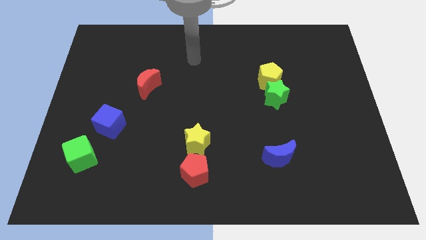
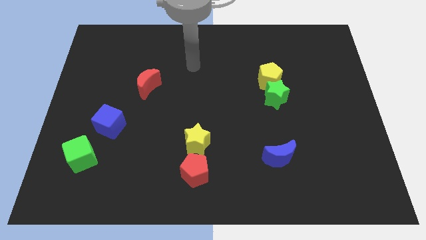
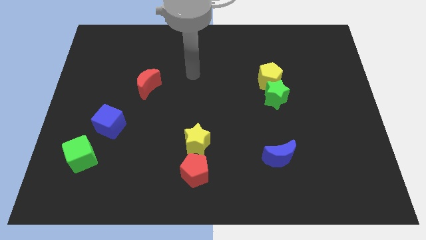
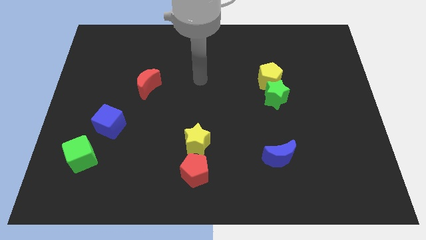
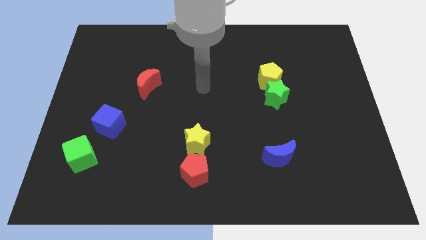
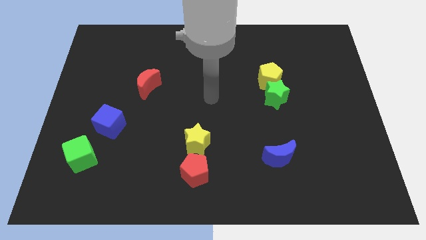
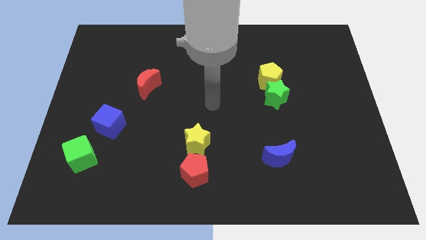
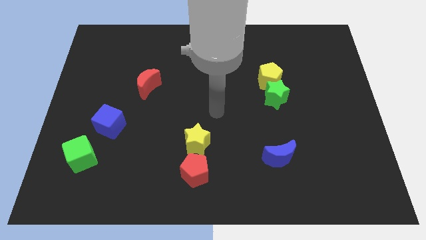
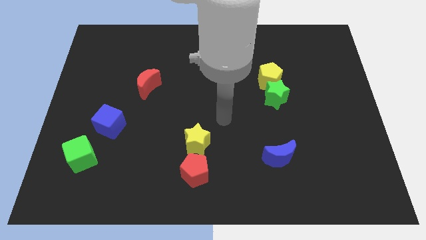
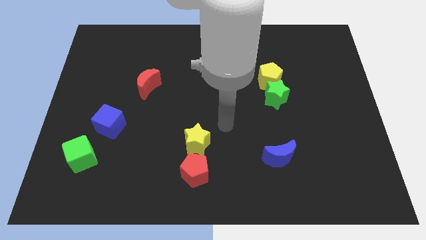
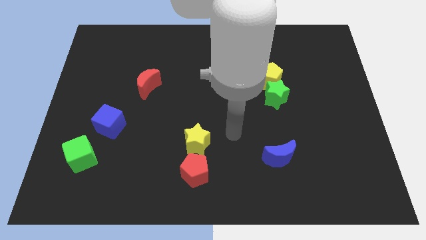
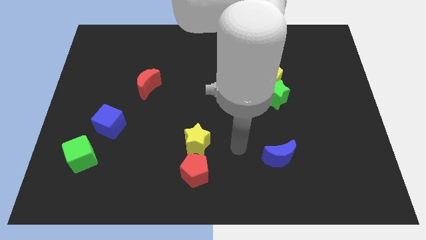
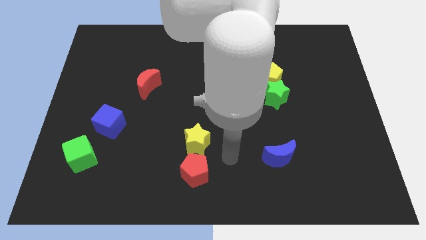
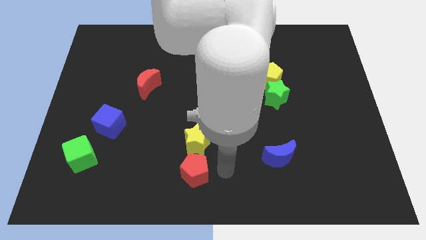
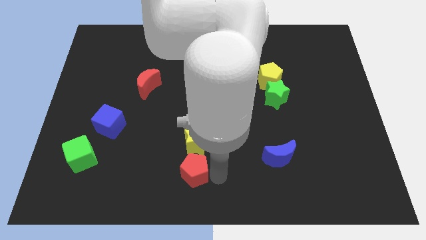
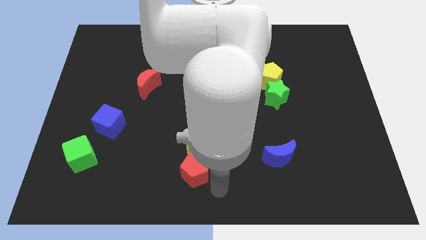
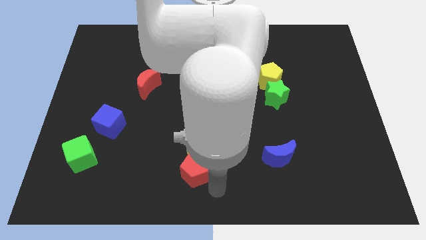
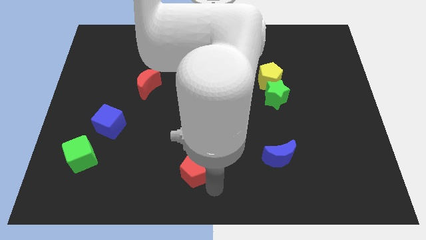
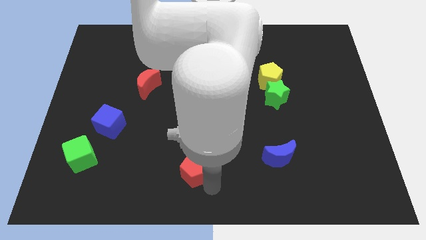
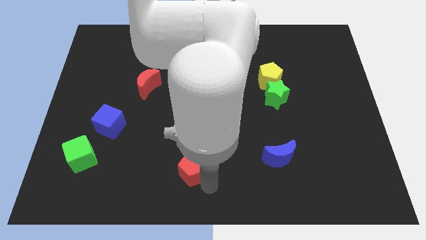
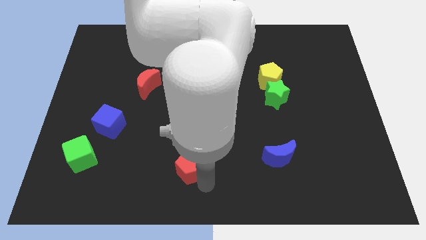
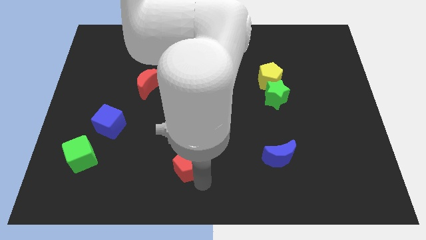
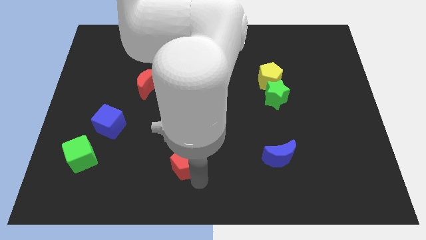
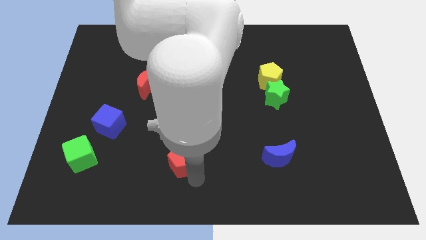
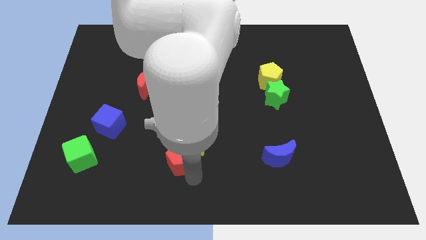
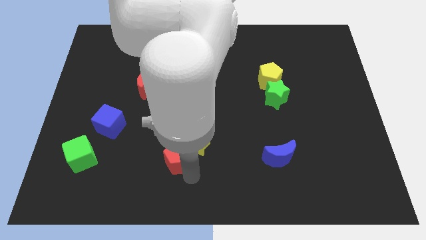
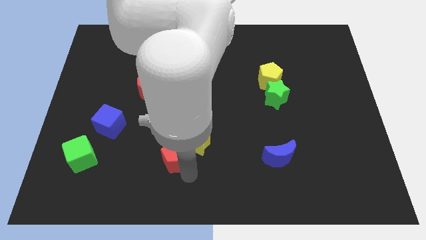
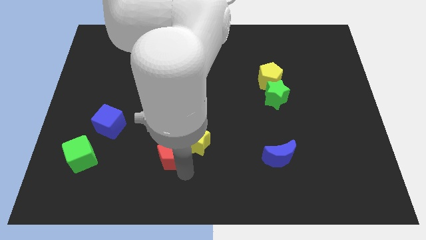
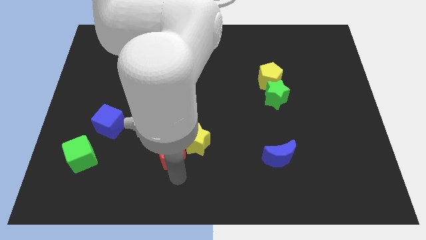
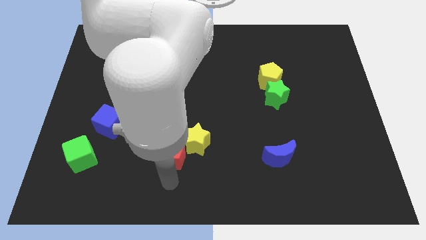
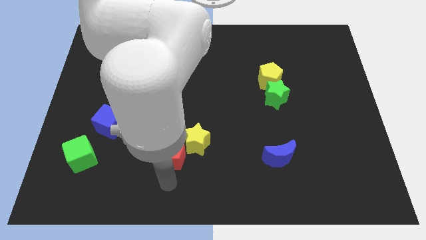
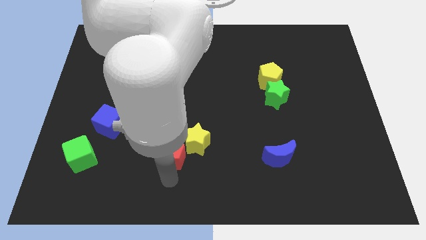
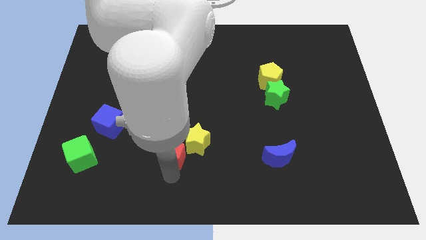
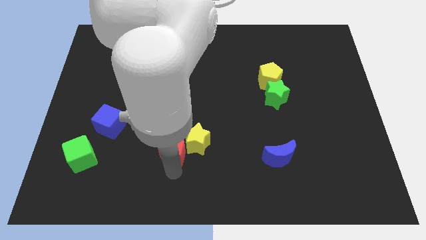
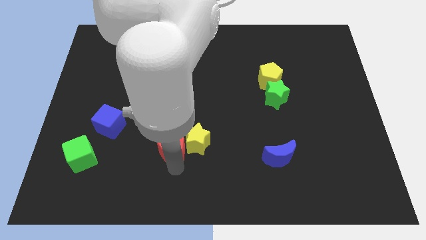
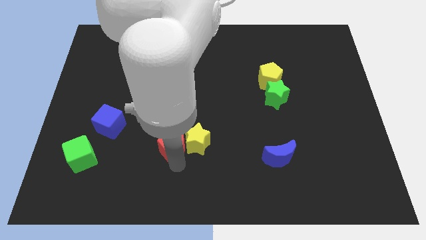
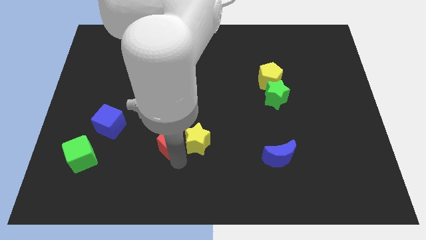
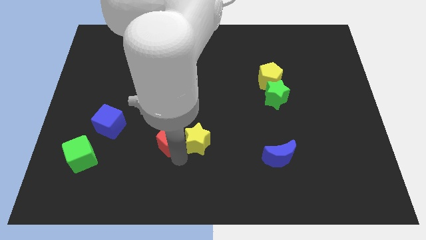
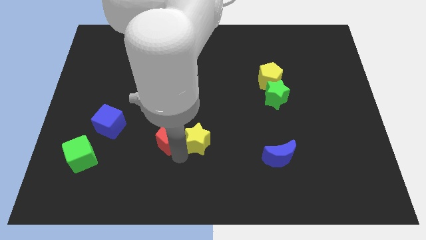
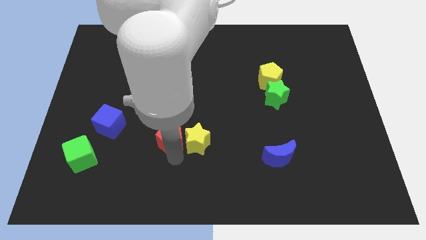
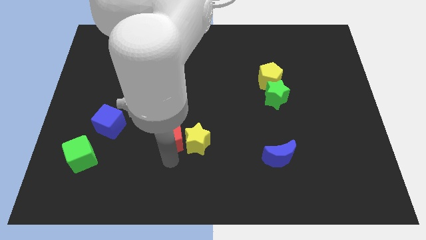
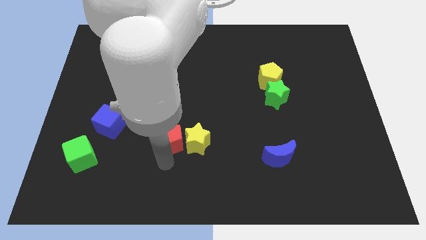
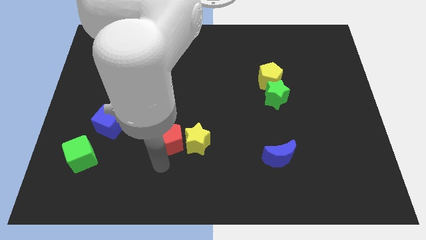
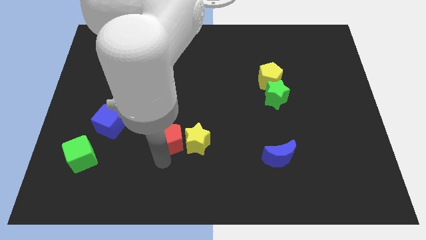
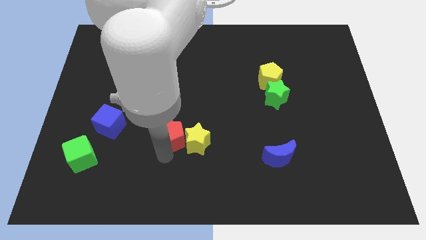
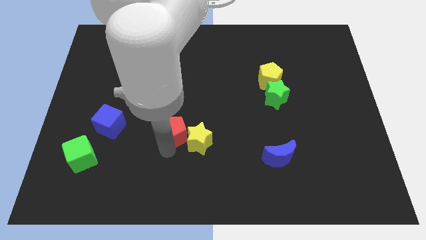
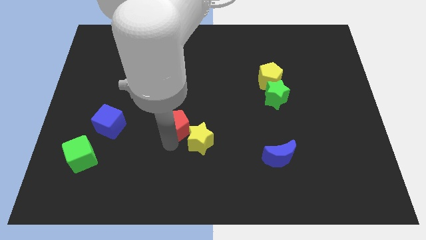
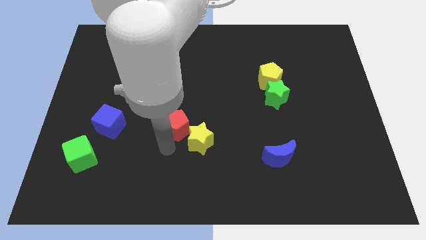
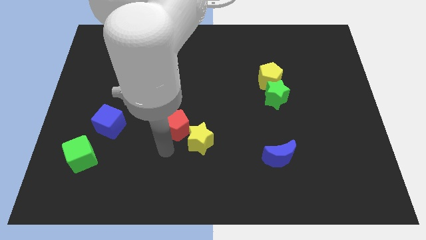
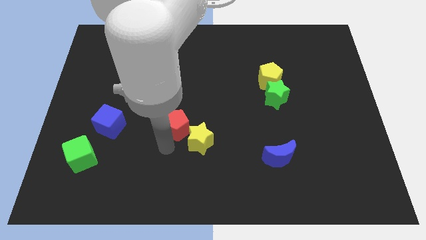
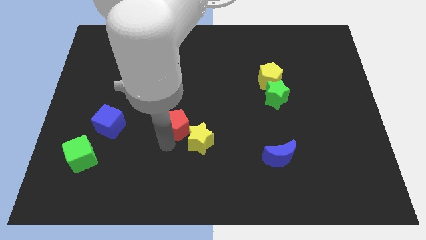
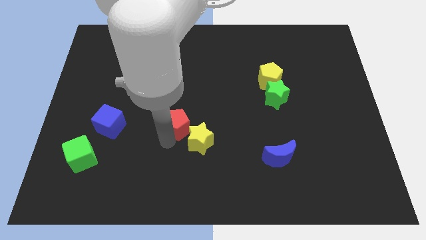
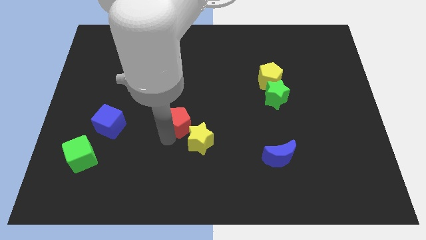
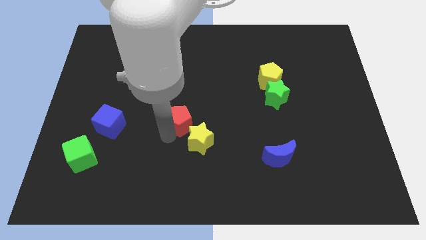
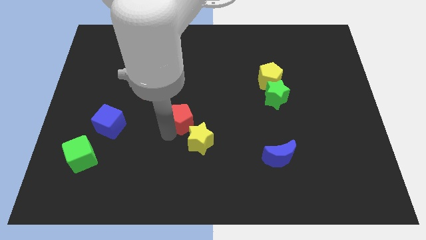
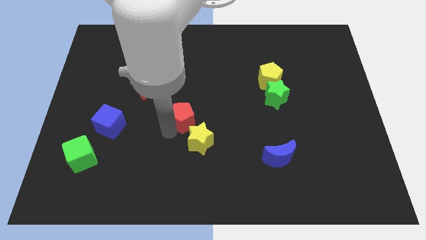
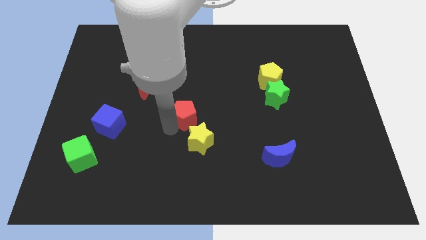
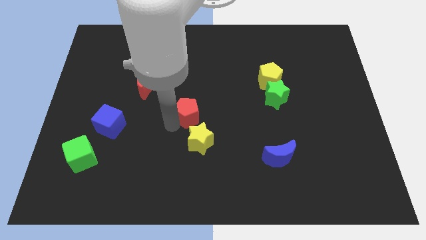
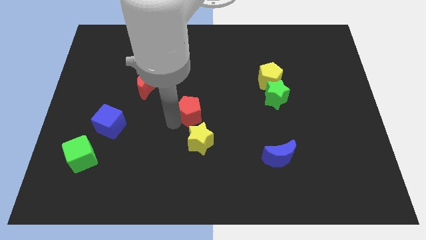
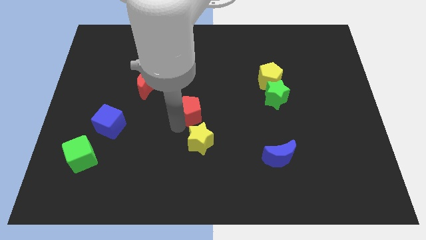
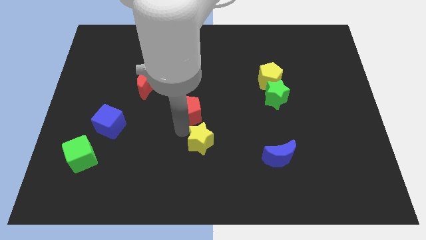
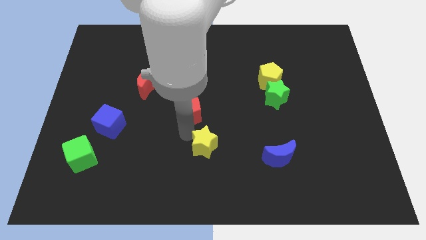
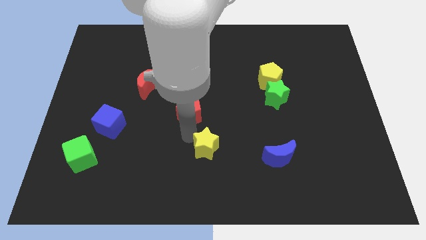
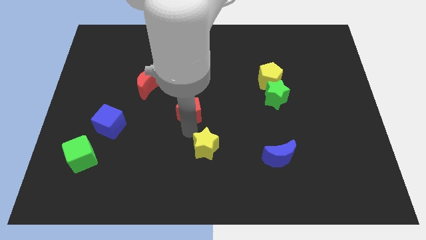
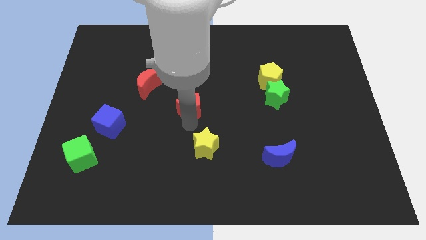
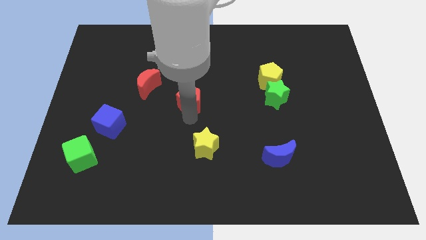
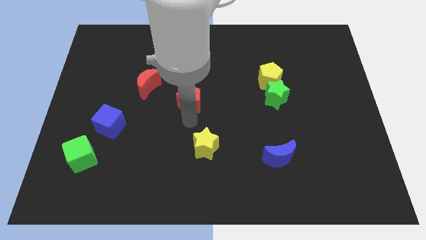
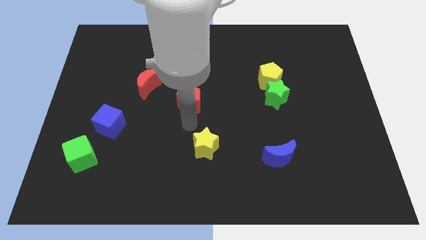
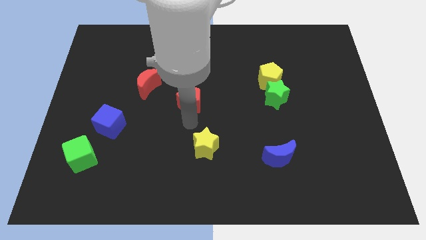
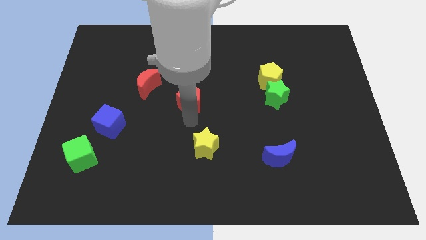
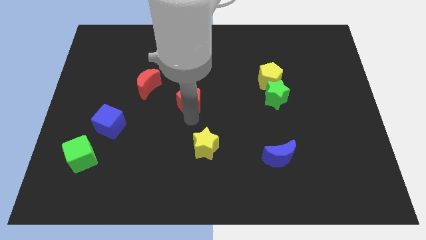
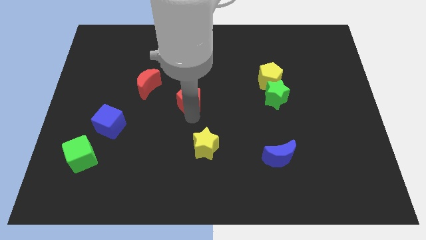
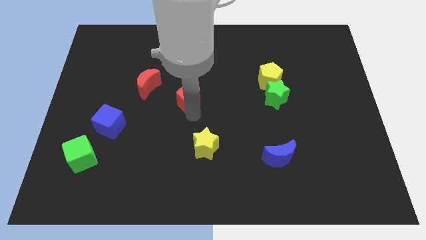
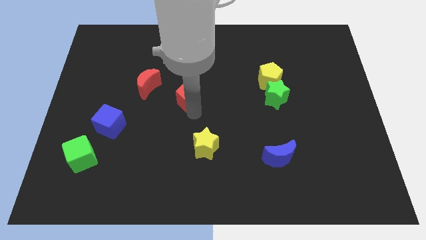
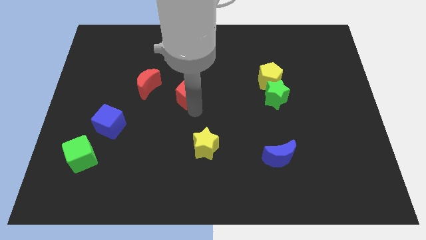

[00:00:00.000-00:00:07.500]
push the red pentagon up

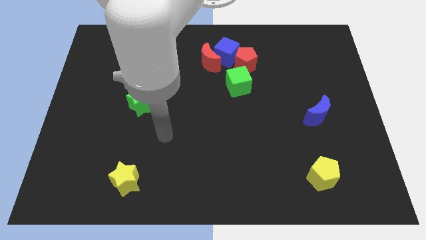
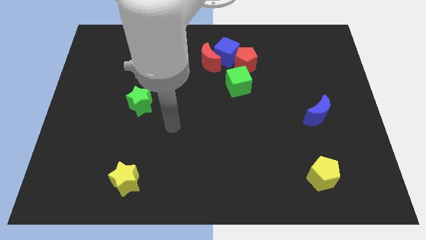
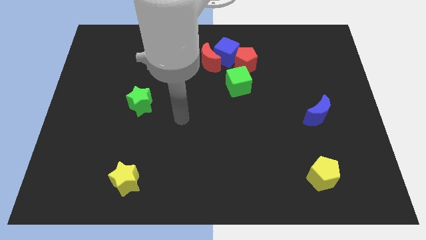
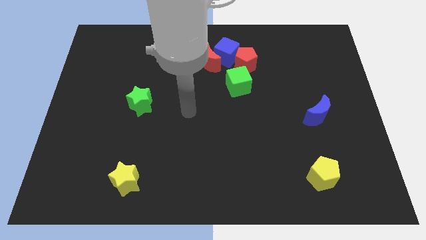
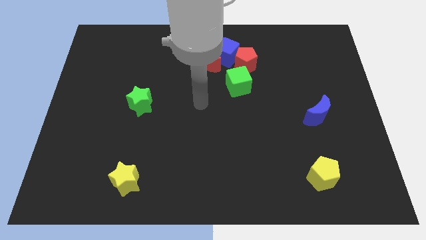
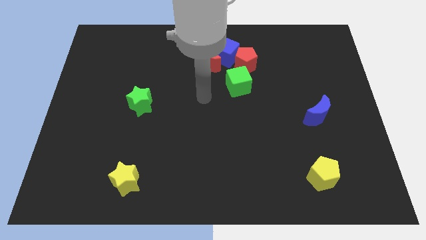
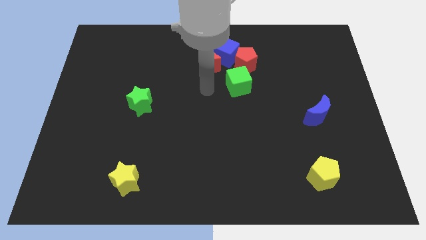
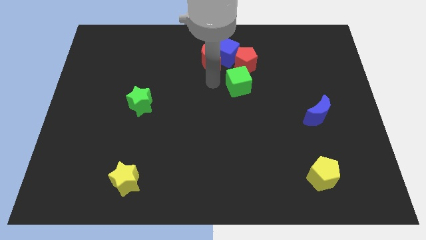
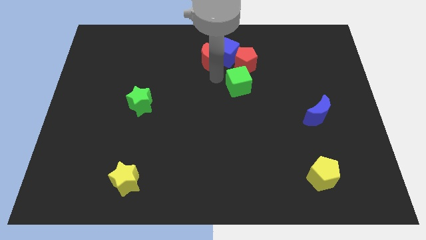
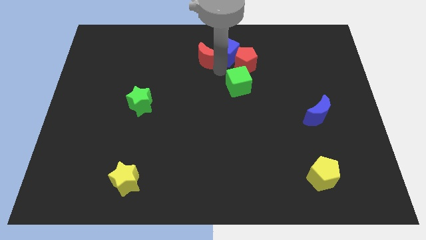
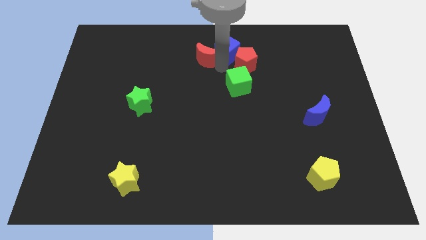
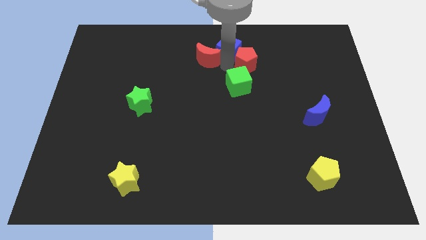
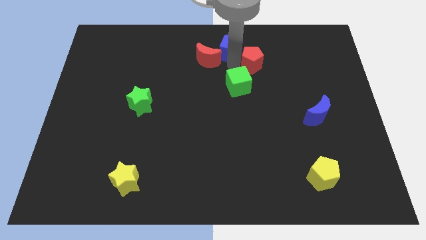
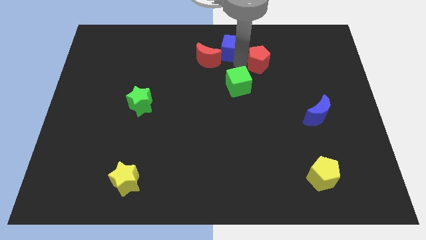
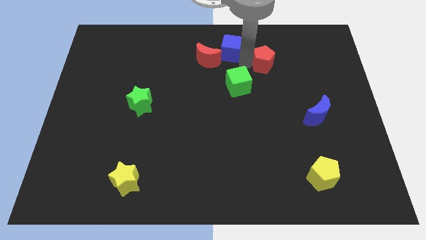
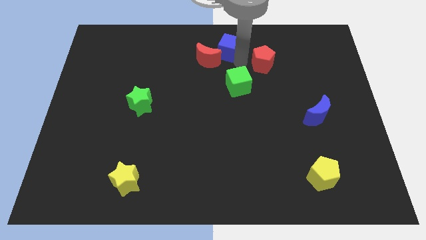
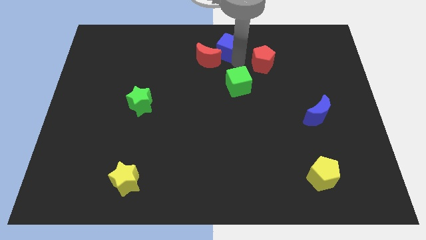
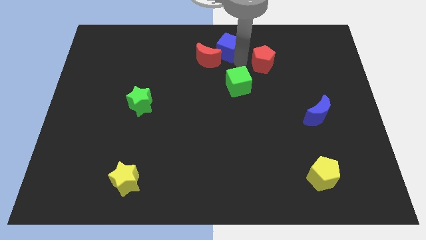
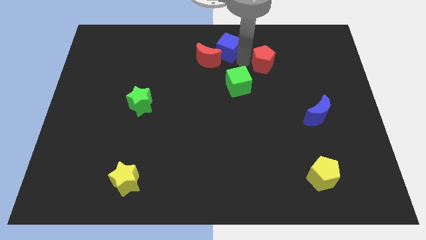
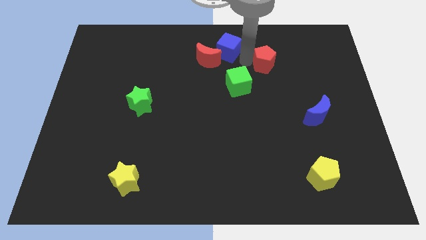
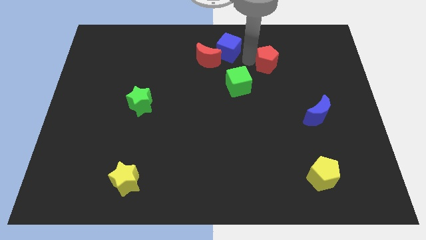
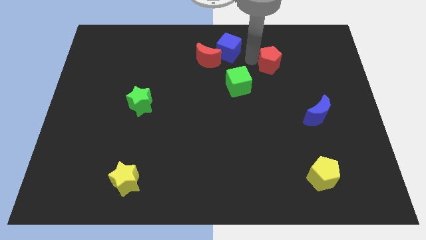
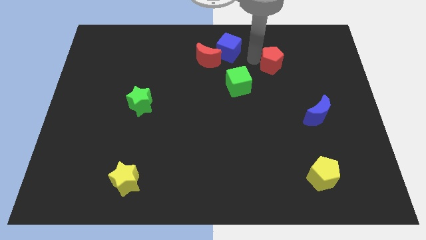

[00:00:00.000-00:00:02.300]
slightly push the red pentagon right
